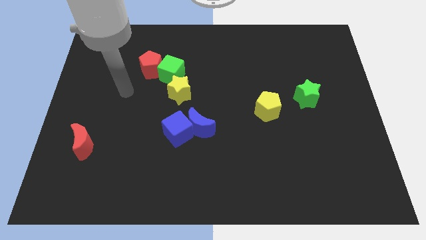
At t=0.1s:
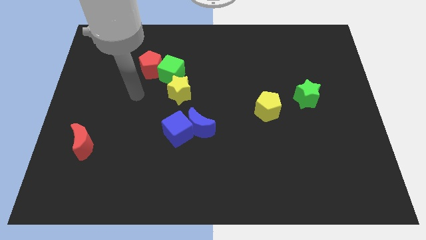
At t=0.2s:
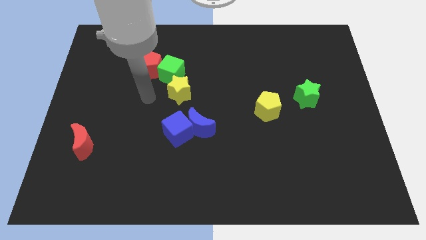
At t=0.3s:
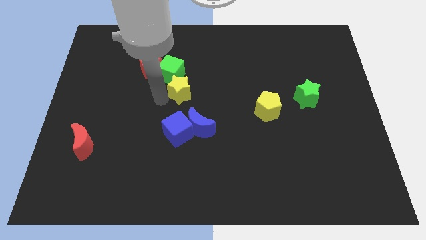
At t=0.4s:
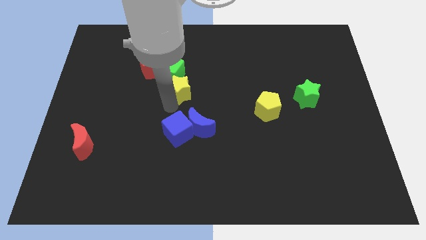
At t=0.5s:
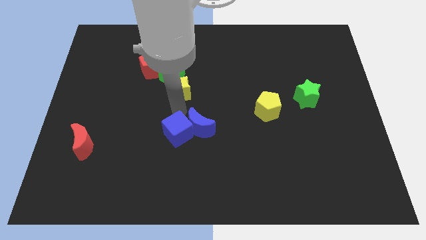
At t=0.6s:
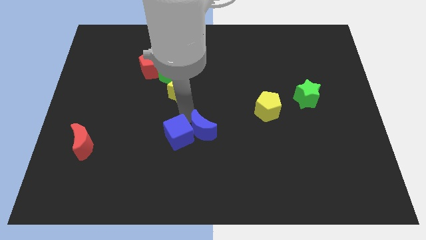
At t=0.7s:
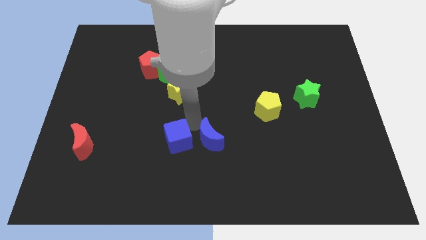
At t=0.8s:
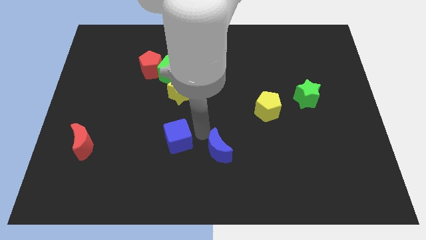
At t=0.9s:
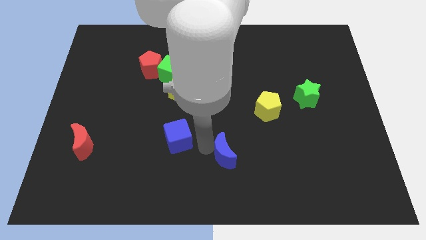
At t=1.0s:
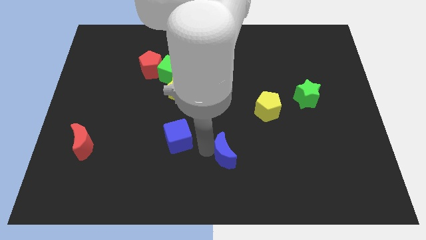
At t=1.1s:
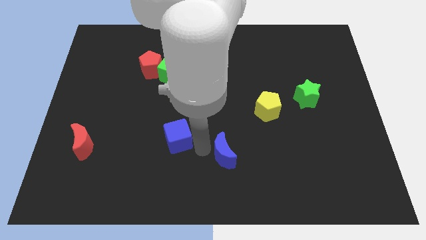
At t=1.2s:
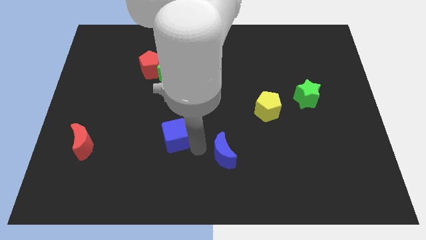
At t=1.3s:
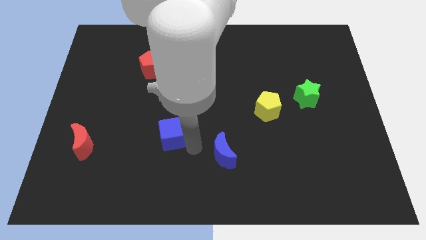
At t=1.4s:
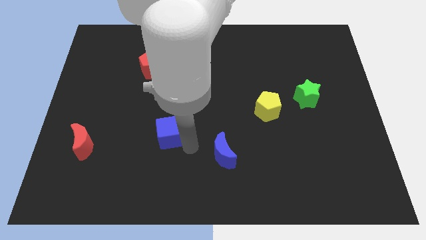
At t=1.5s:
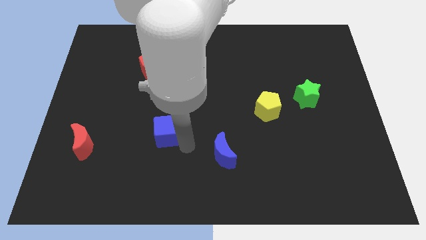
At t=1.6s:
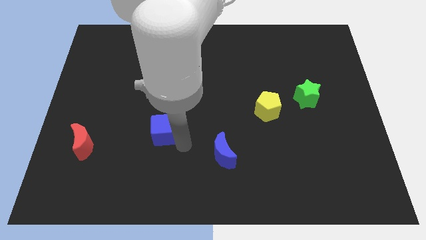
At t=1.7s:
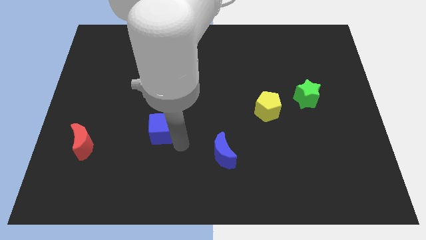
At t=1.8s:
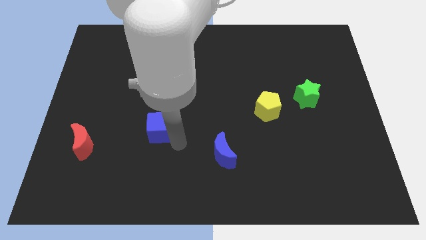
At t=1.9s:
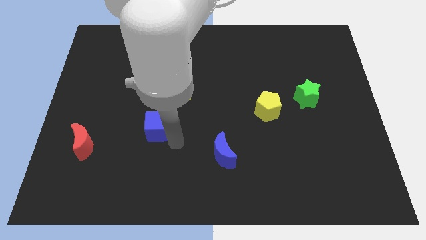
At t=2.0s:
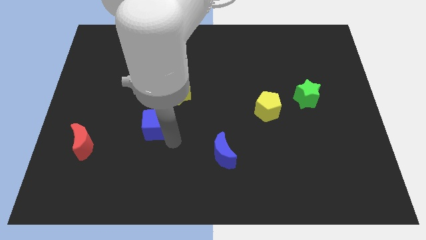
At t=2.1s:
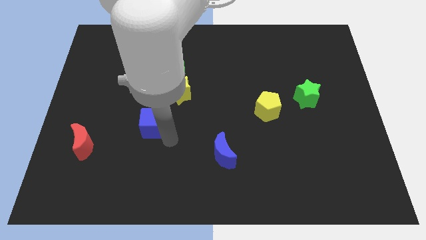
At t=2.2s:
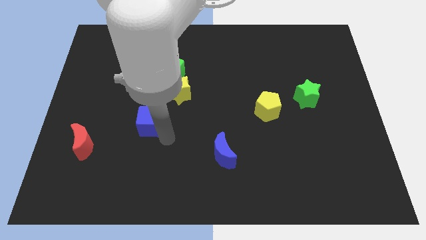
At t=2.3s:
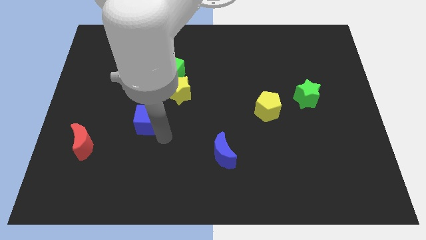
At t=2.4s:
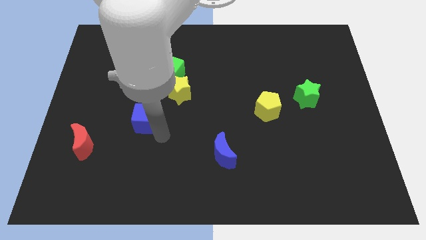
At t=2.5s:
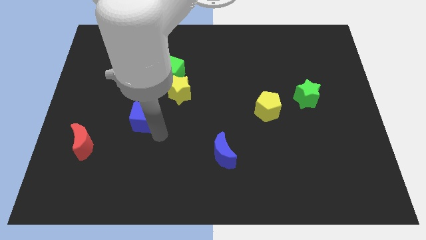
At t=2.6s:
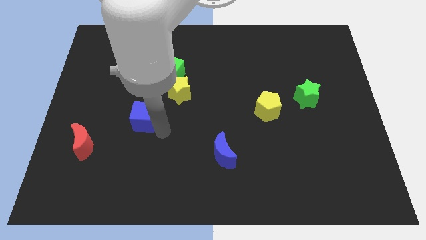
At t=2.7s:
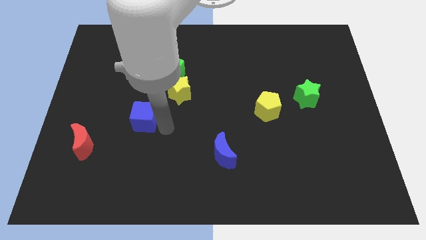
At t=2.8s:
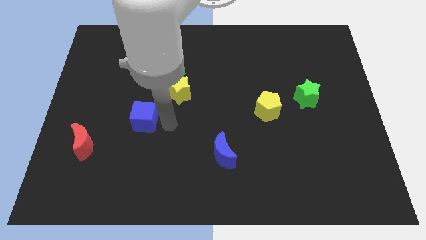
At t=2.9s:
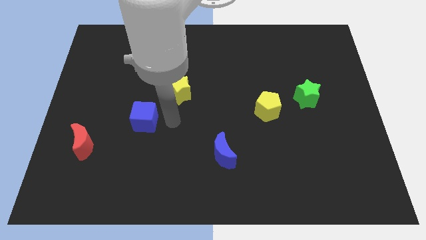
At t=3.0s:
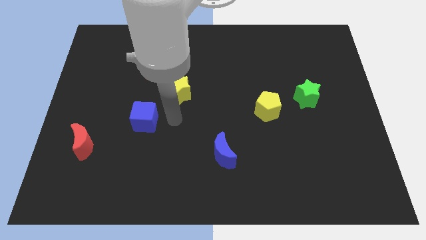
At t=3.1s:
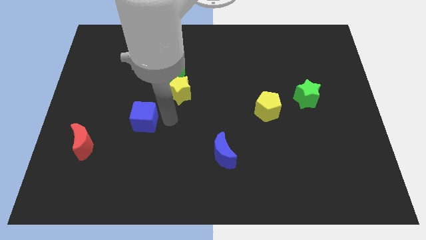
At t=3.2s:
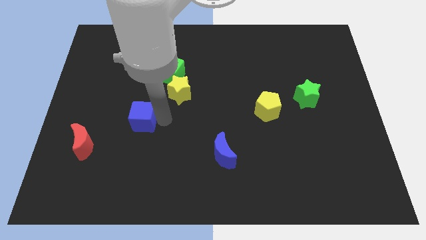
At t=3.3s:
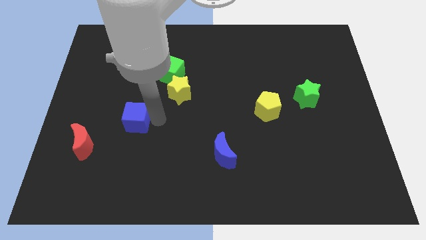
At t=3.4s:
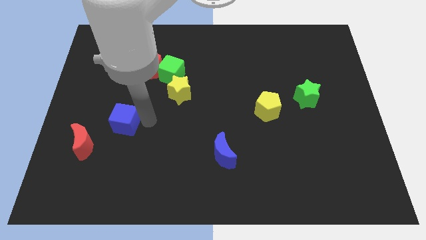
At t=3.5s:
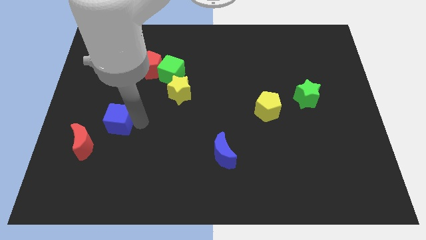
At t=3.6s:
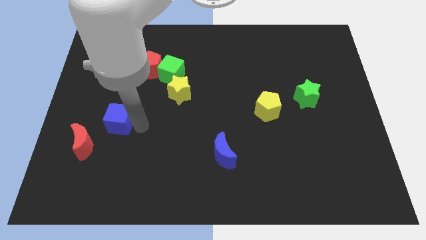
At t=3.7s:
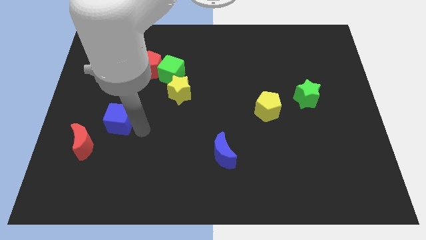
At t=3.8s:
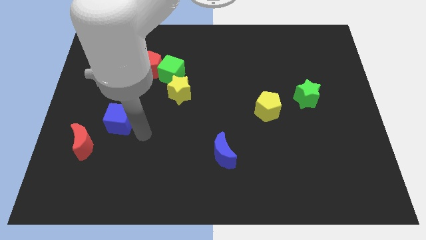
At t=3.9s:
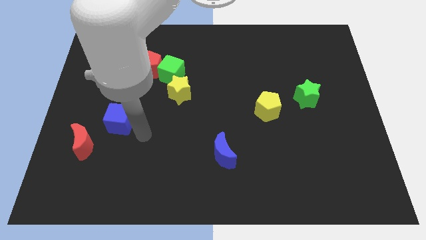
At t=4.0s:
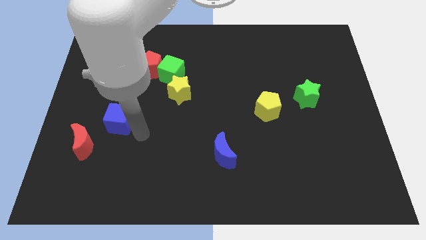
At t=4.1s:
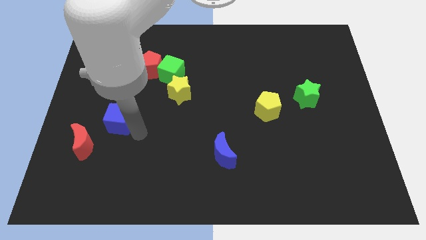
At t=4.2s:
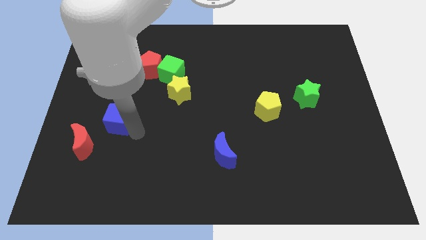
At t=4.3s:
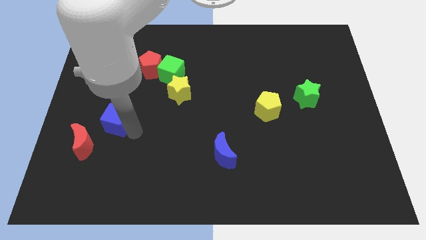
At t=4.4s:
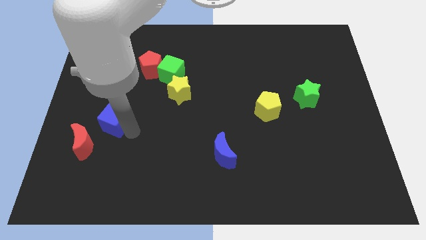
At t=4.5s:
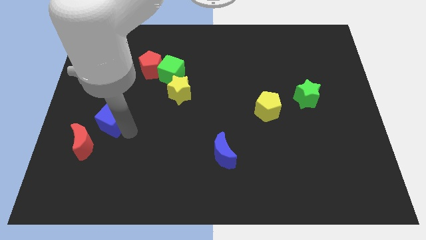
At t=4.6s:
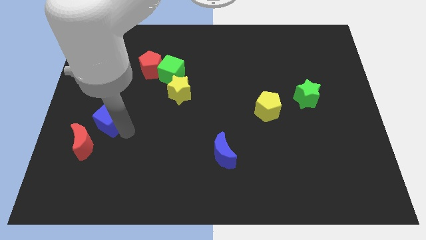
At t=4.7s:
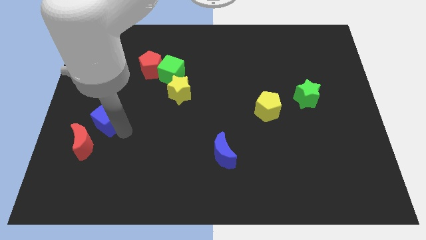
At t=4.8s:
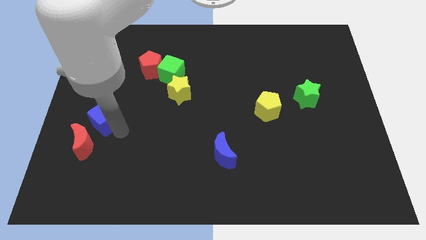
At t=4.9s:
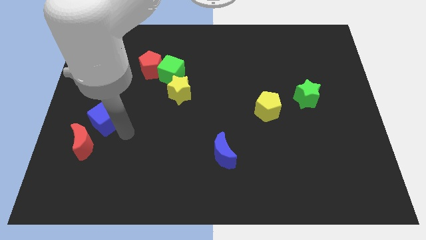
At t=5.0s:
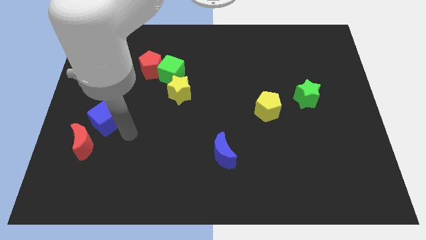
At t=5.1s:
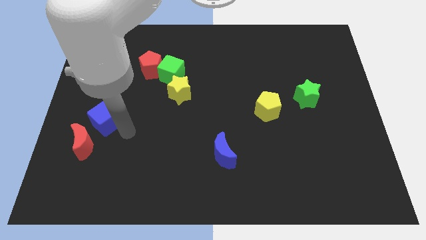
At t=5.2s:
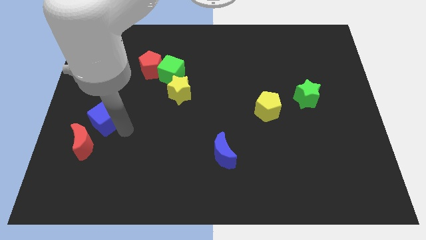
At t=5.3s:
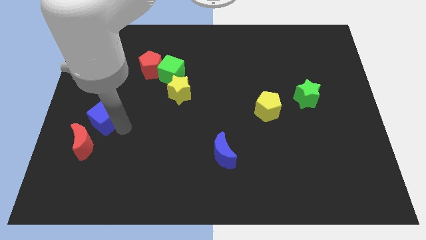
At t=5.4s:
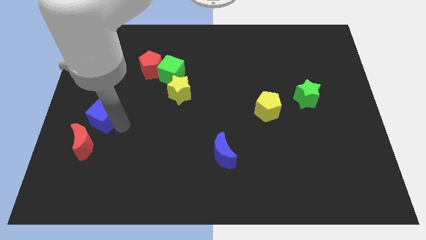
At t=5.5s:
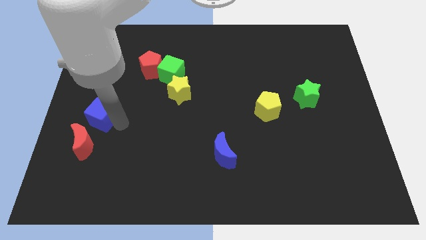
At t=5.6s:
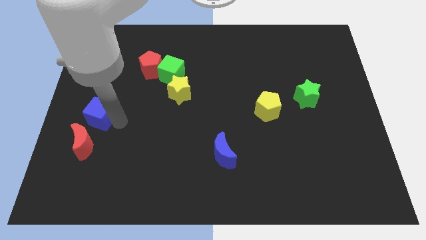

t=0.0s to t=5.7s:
move the blue cube to the center left
